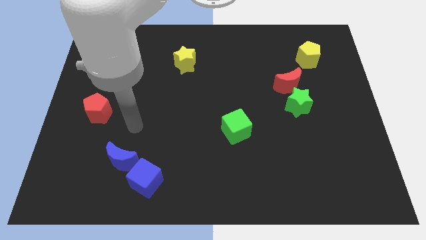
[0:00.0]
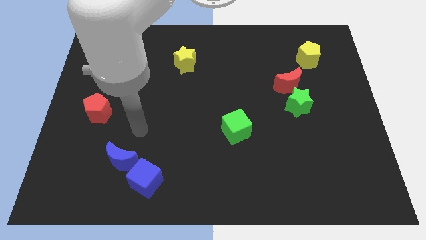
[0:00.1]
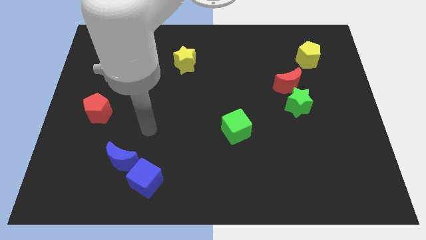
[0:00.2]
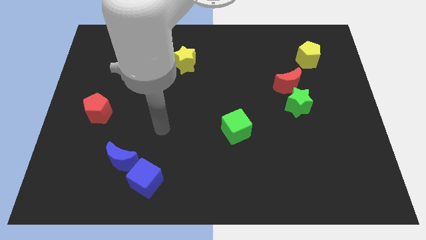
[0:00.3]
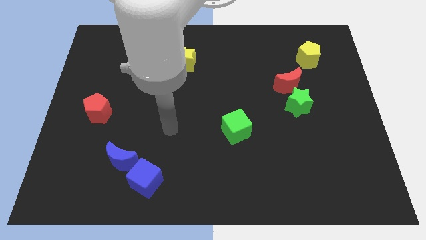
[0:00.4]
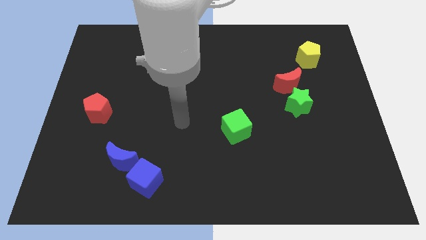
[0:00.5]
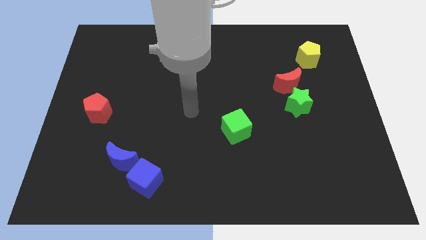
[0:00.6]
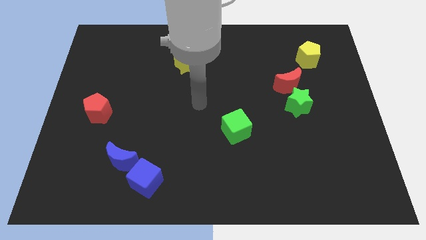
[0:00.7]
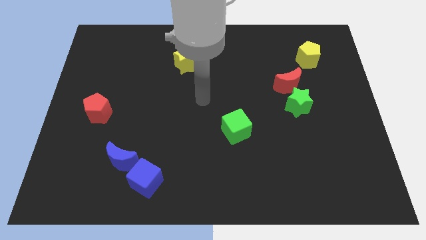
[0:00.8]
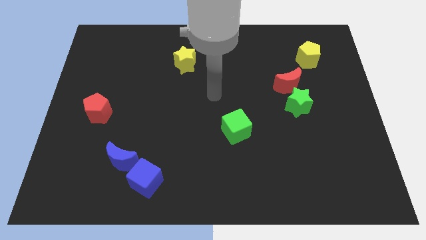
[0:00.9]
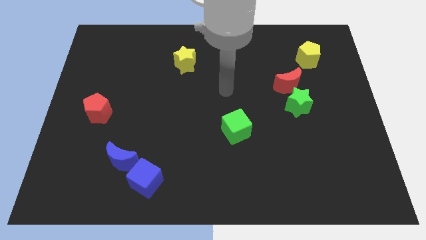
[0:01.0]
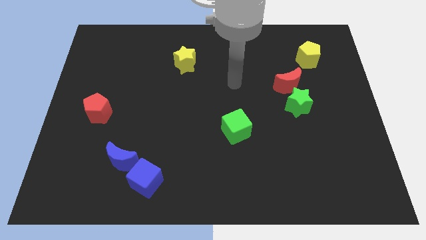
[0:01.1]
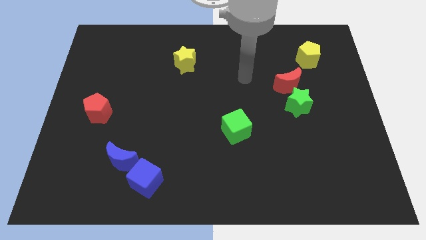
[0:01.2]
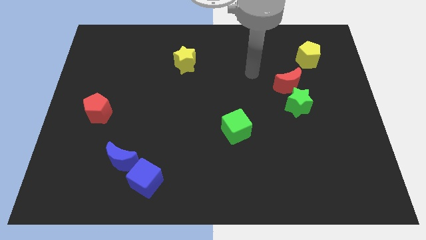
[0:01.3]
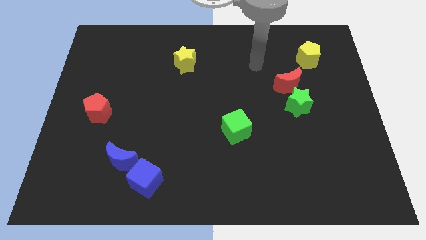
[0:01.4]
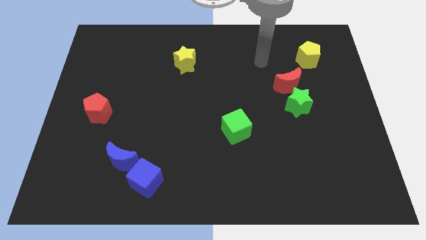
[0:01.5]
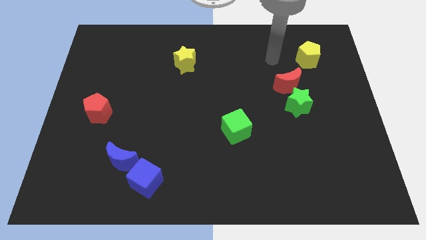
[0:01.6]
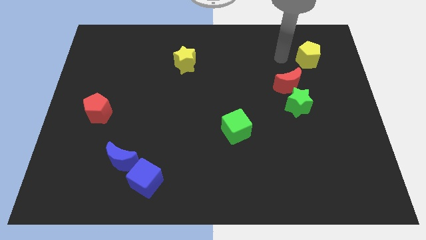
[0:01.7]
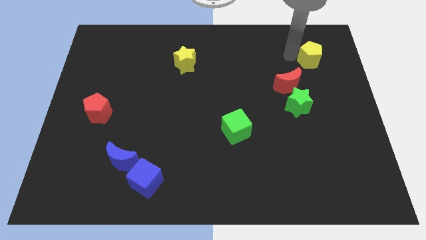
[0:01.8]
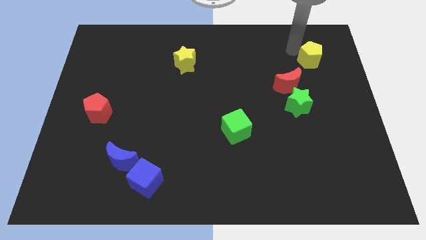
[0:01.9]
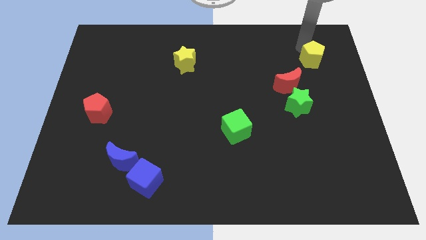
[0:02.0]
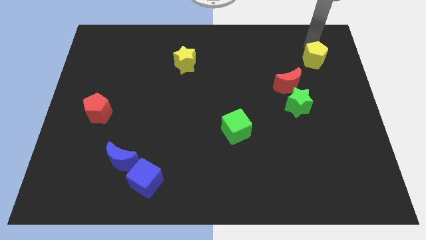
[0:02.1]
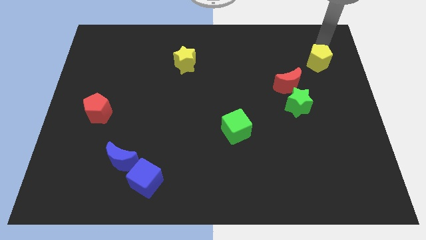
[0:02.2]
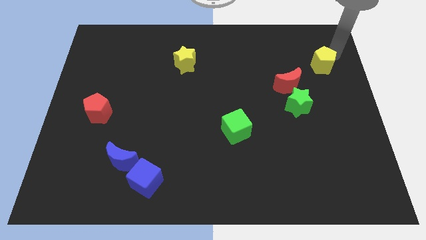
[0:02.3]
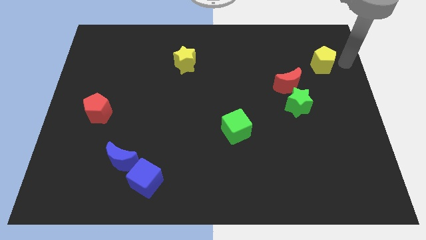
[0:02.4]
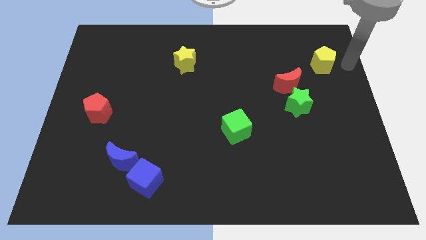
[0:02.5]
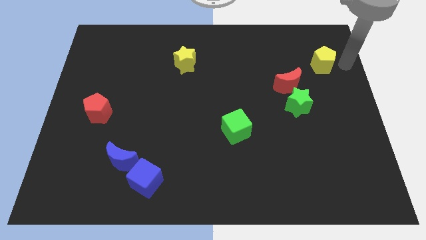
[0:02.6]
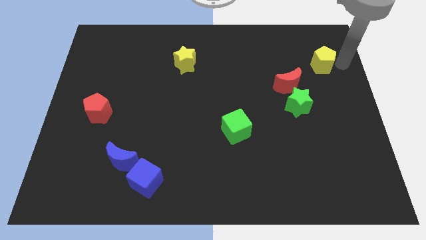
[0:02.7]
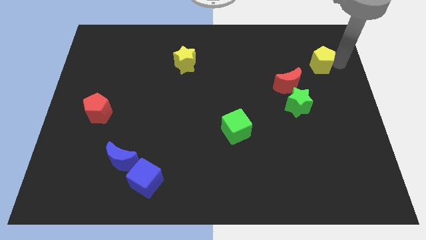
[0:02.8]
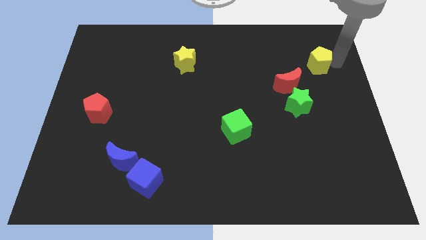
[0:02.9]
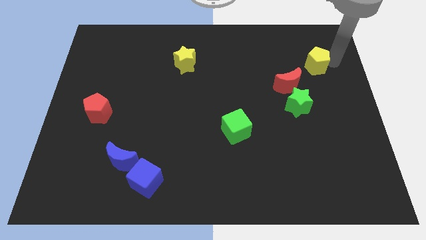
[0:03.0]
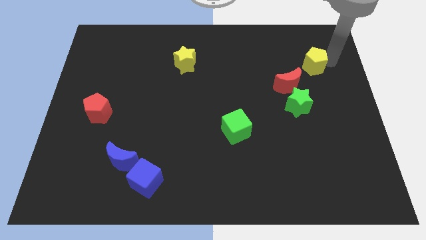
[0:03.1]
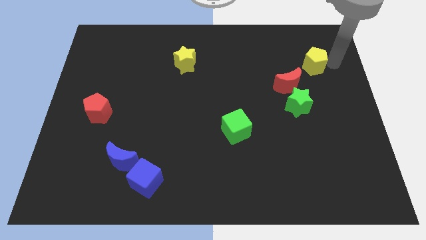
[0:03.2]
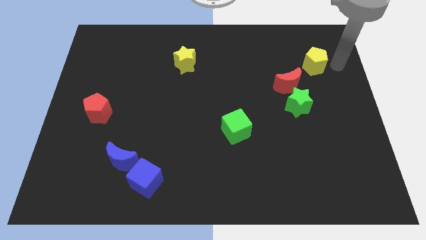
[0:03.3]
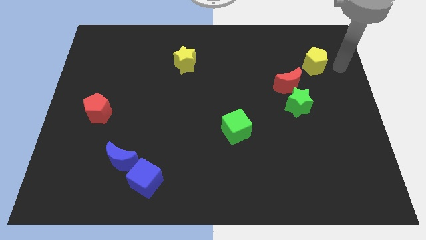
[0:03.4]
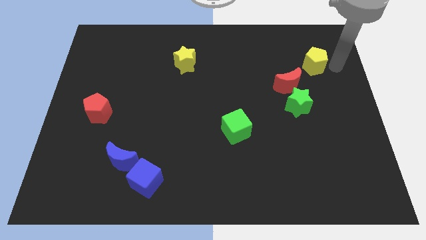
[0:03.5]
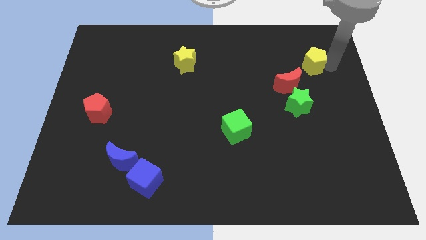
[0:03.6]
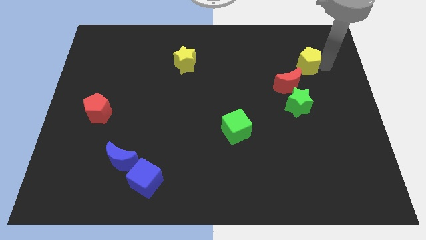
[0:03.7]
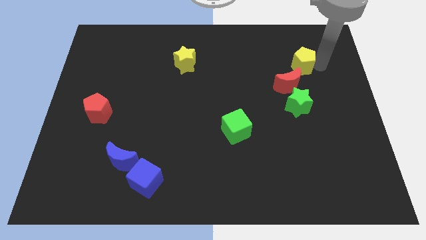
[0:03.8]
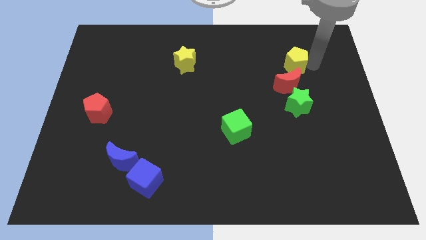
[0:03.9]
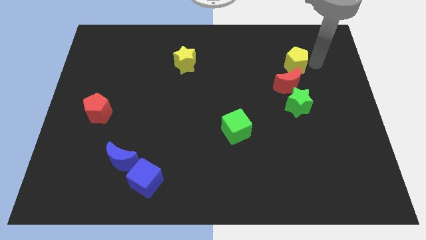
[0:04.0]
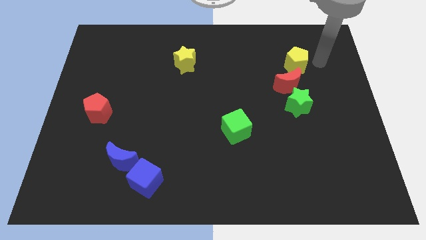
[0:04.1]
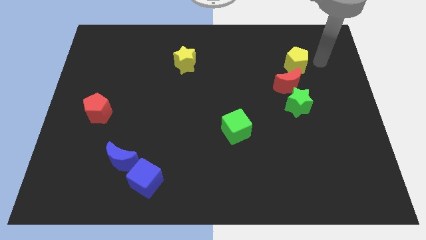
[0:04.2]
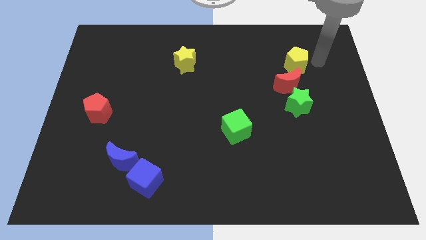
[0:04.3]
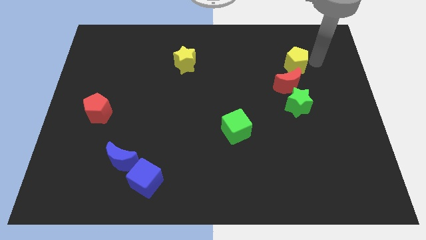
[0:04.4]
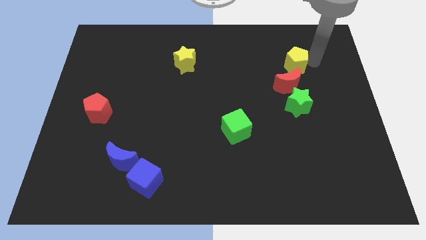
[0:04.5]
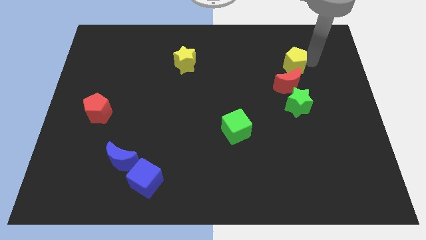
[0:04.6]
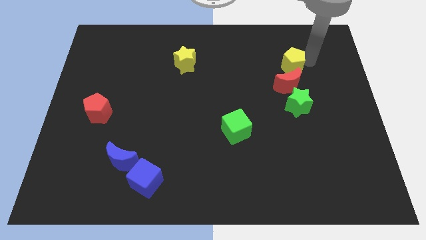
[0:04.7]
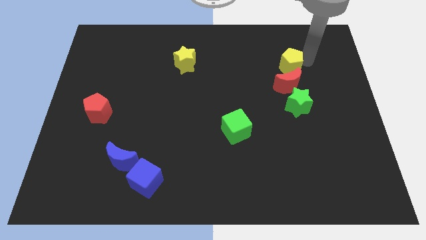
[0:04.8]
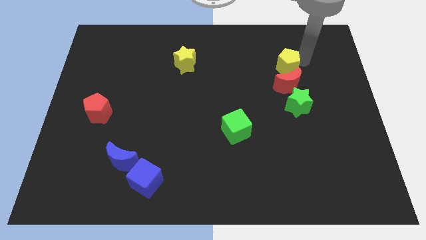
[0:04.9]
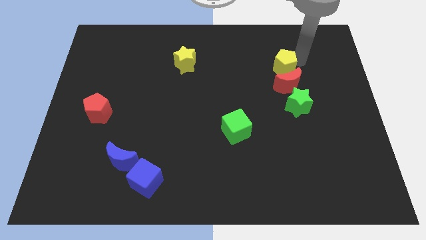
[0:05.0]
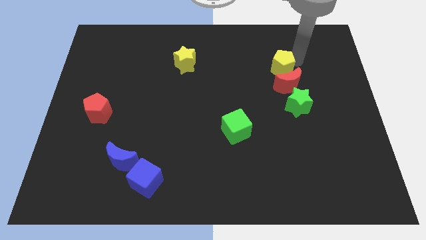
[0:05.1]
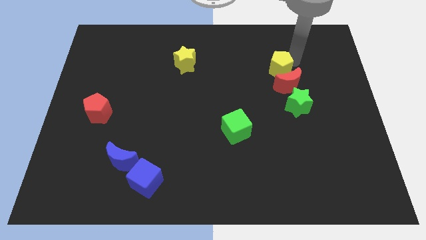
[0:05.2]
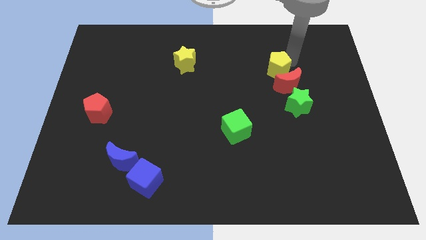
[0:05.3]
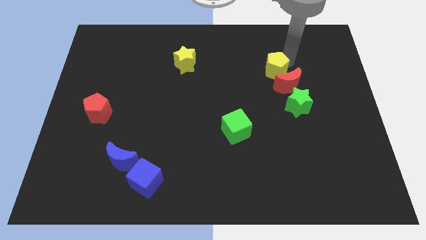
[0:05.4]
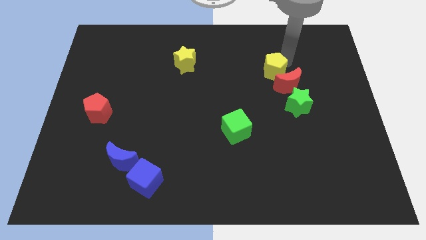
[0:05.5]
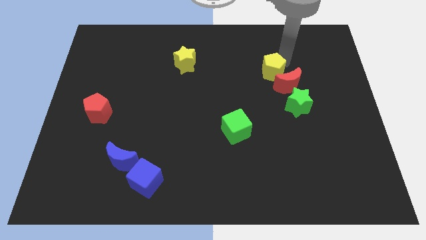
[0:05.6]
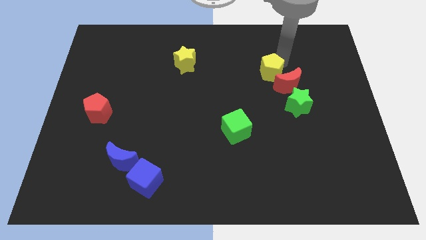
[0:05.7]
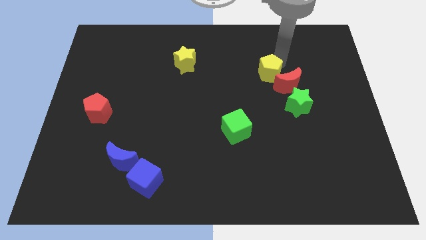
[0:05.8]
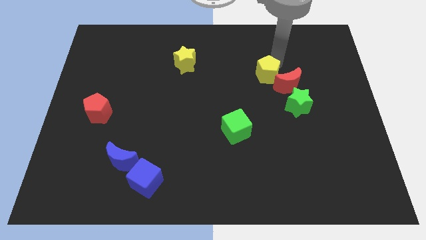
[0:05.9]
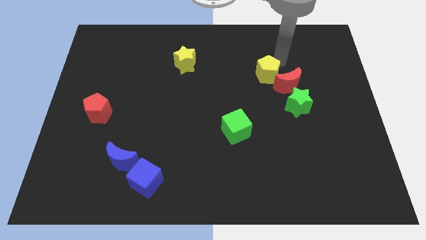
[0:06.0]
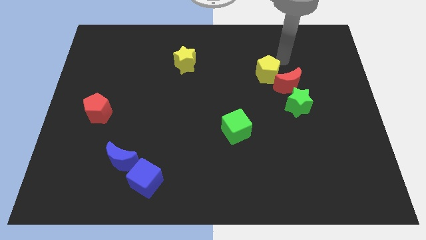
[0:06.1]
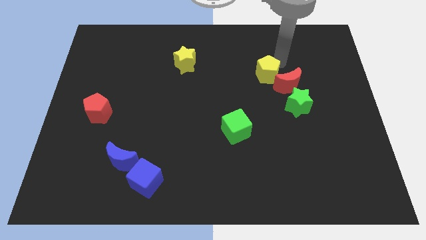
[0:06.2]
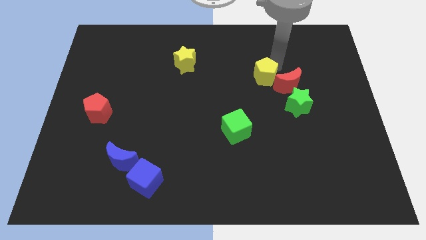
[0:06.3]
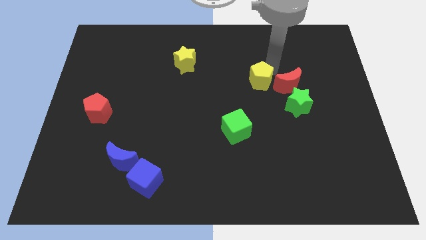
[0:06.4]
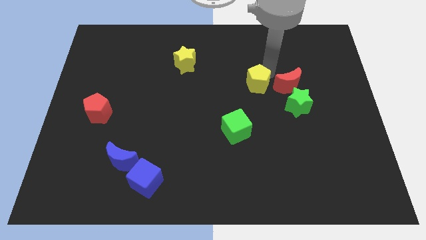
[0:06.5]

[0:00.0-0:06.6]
push the yellow pentagon to the middle
